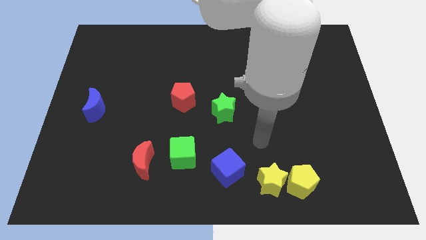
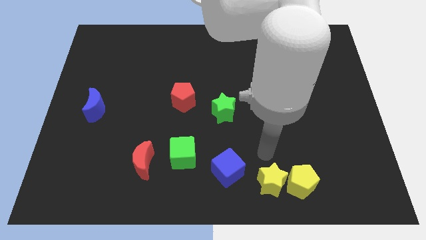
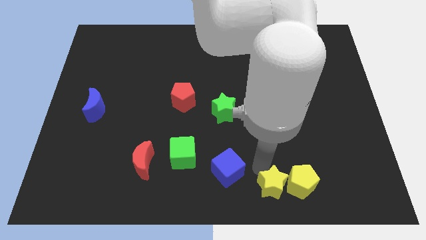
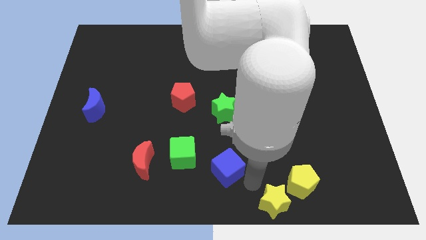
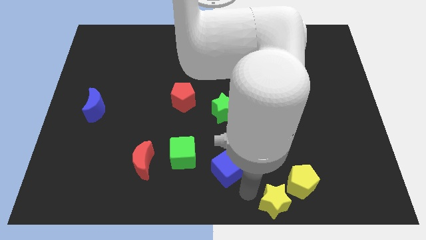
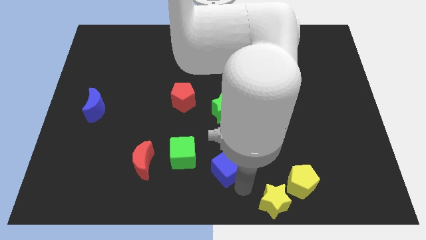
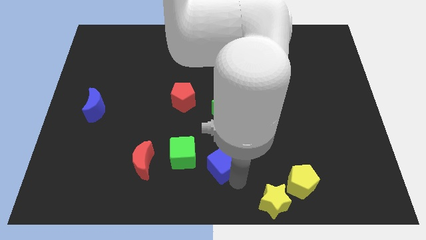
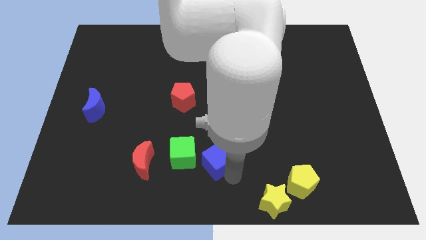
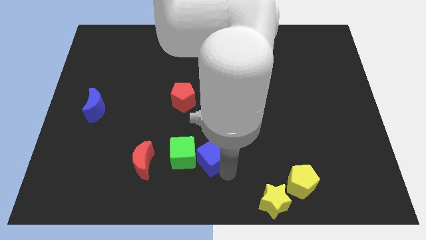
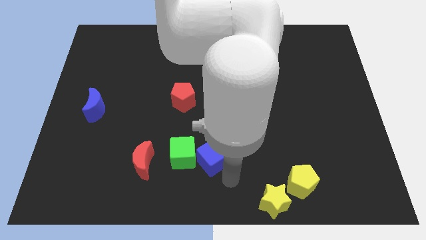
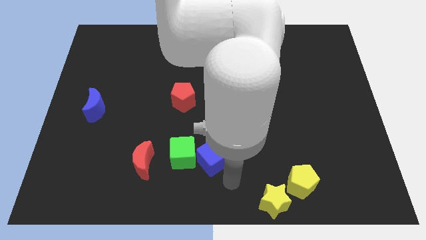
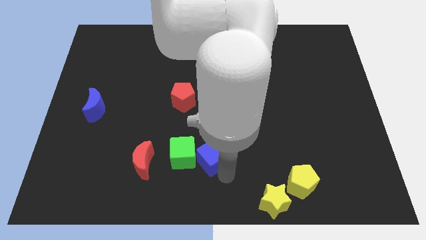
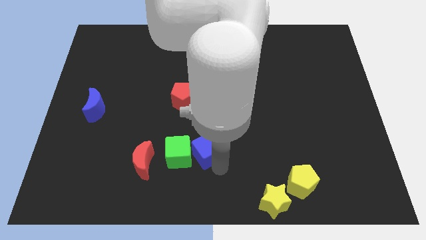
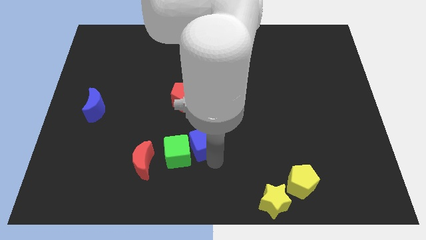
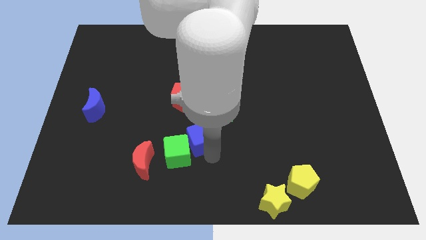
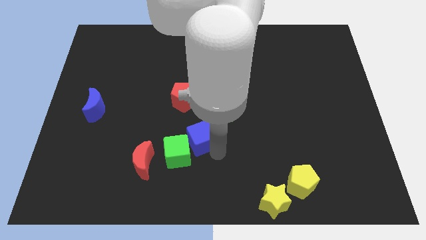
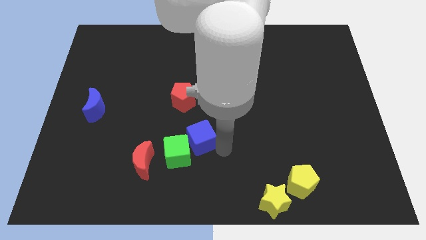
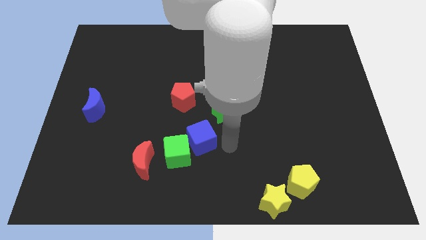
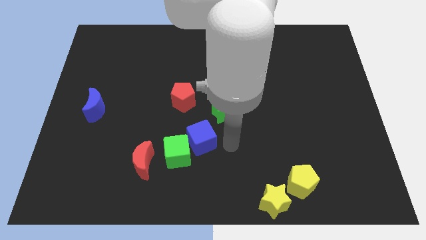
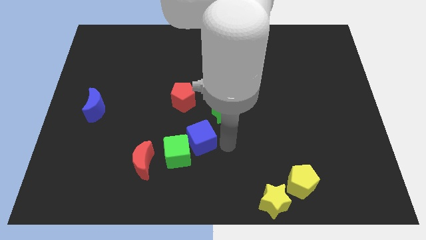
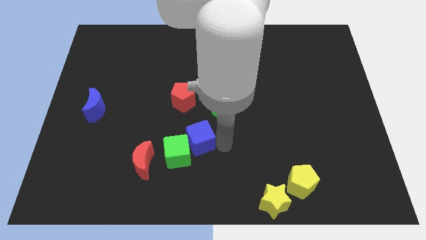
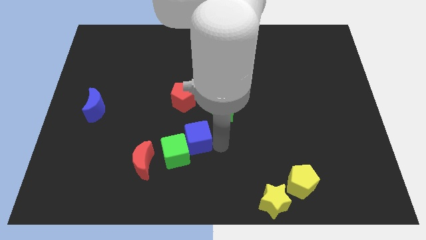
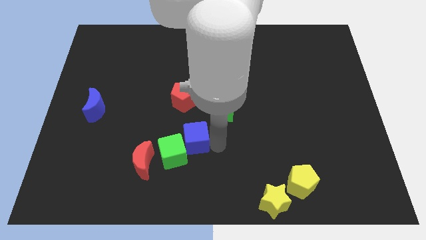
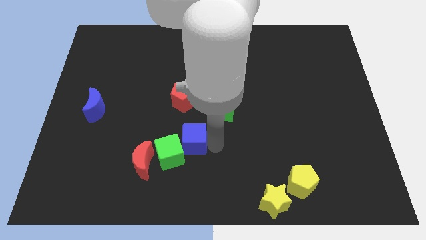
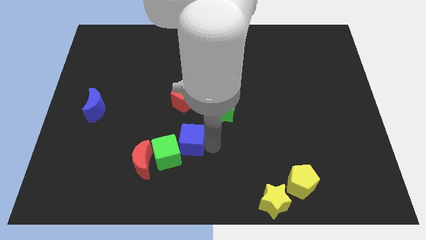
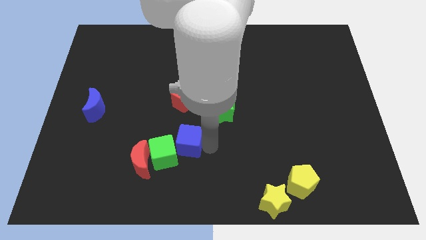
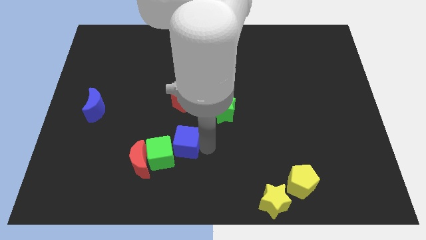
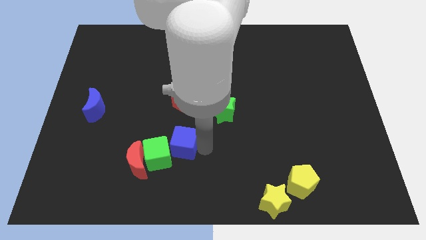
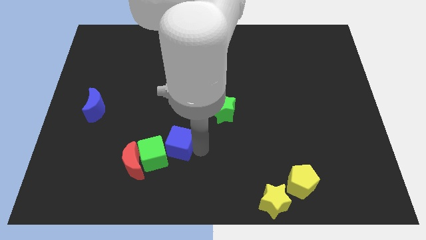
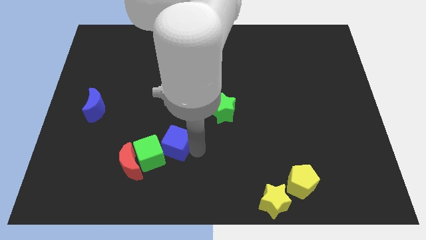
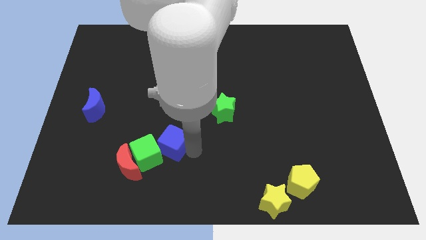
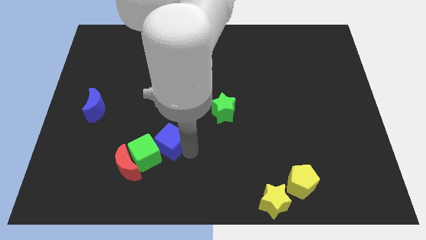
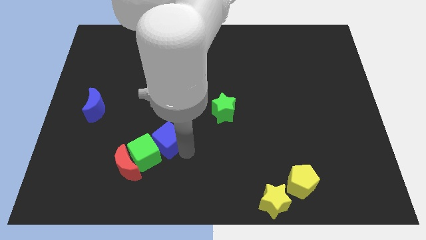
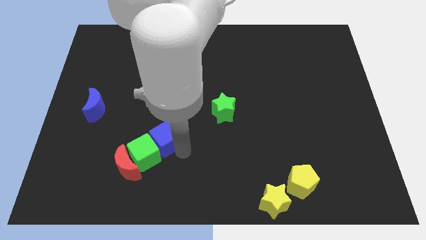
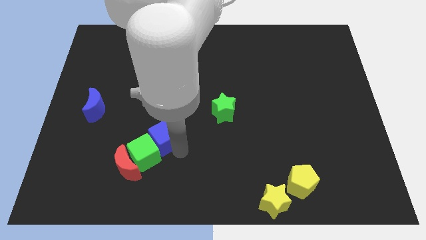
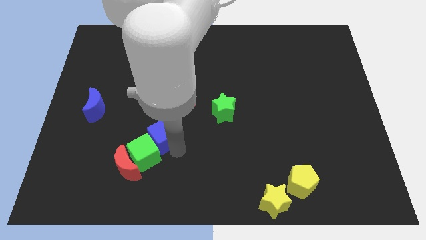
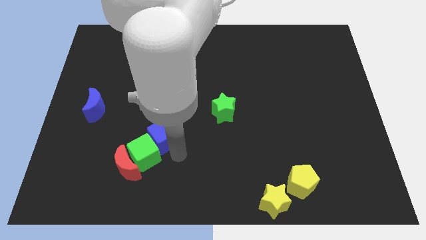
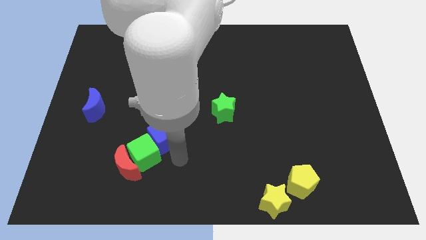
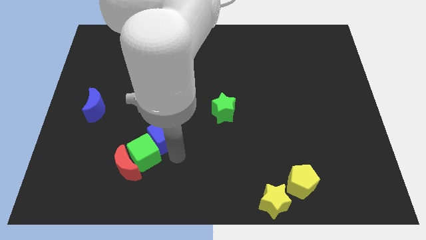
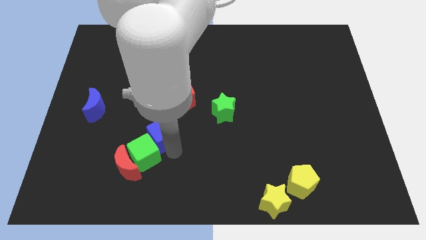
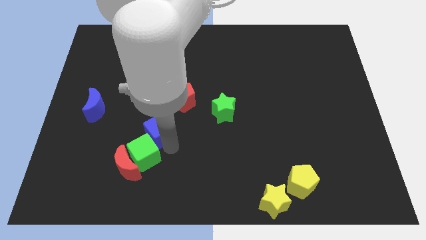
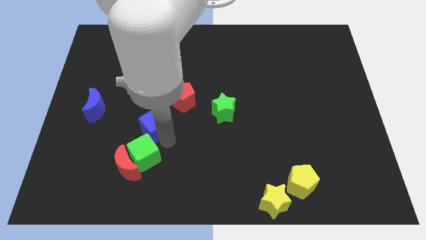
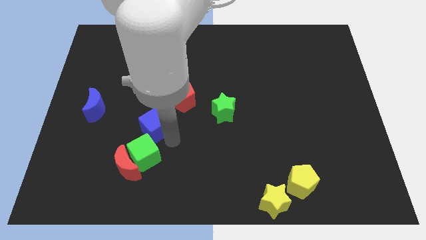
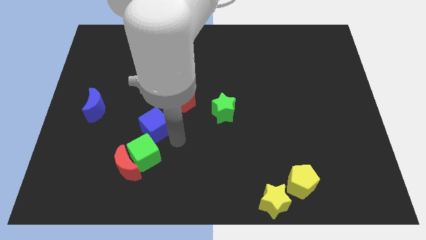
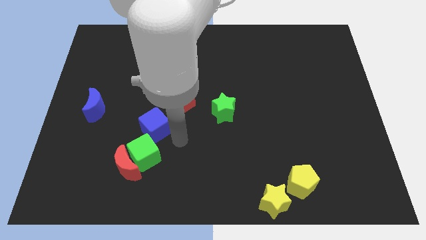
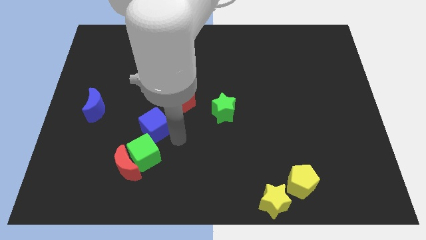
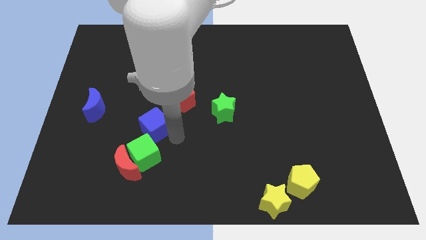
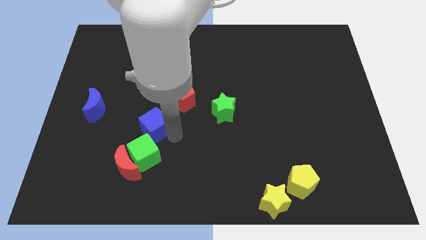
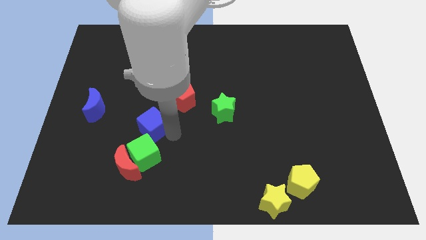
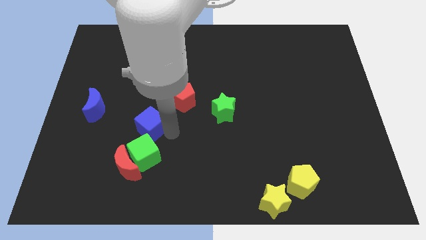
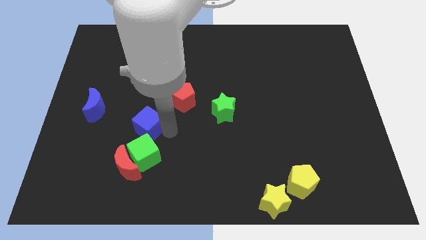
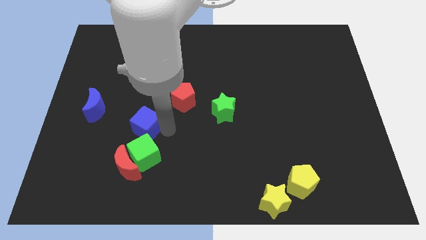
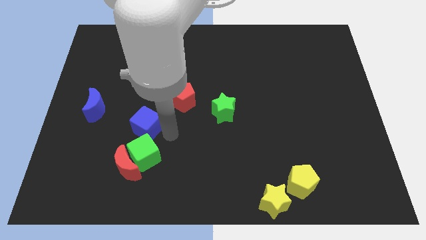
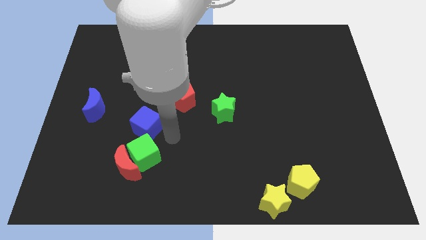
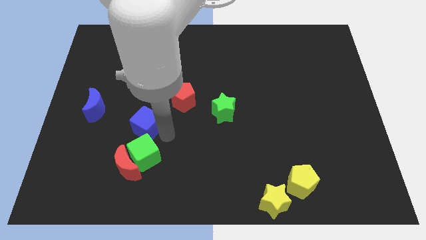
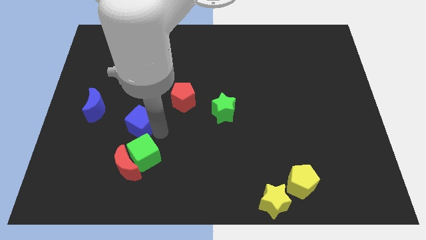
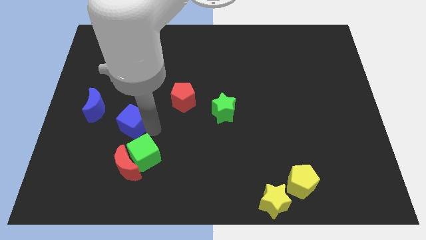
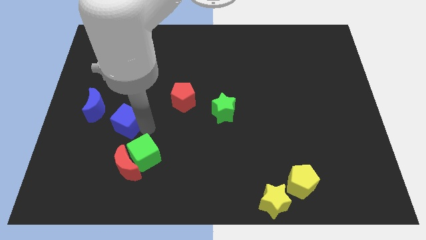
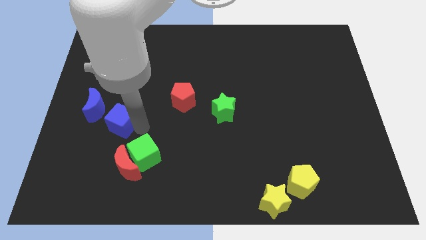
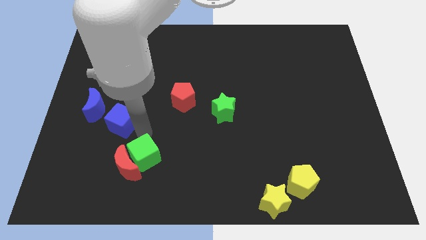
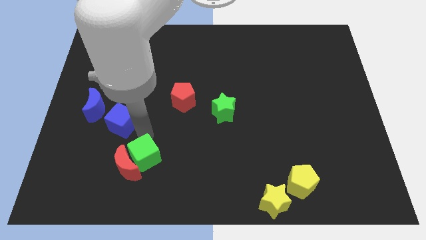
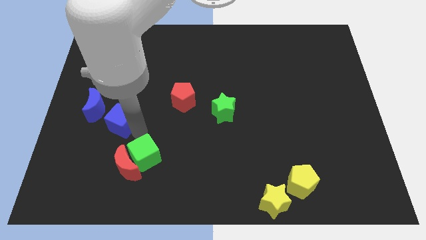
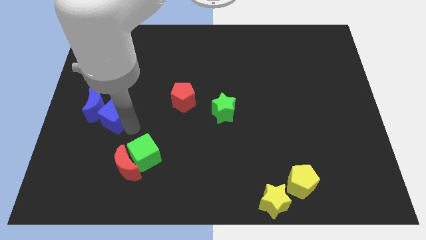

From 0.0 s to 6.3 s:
slide the blue cube close to the blue moon

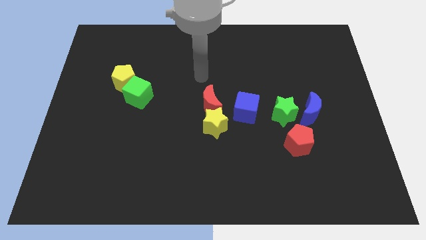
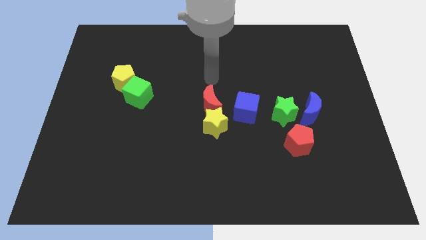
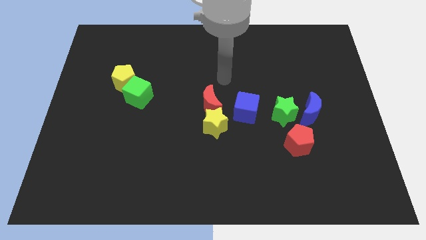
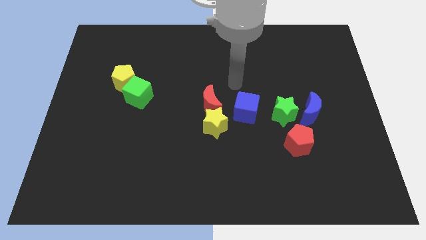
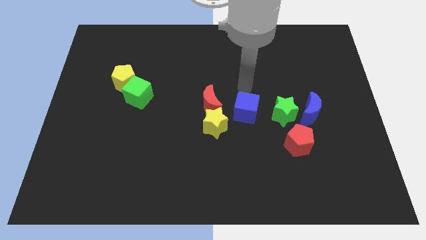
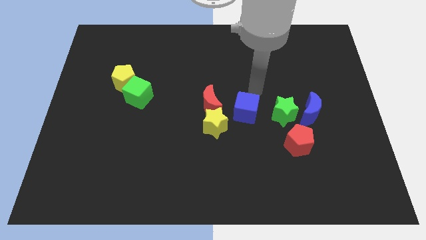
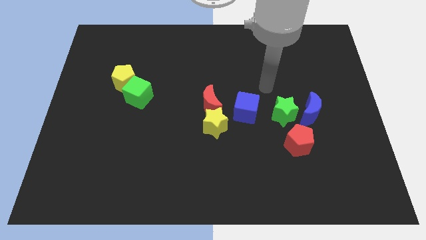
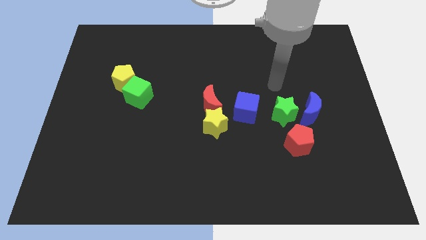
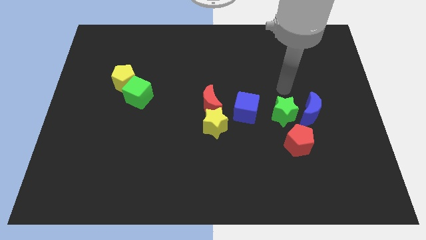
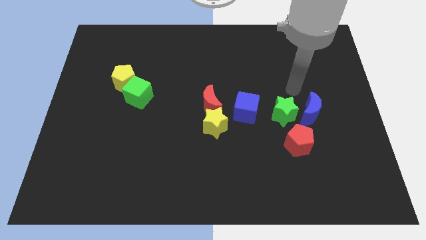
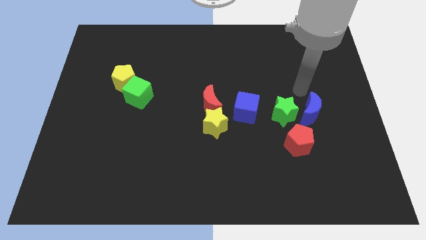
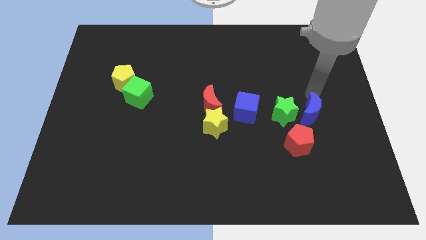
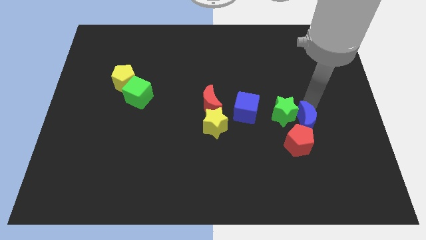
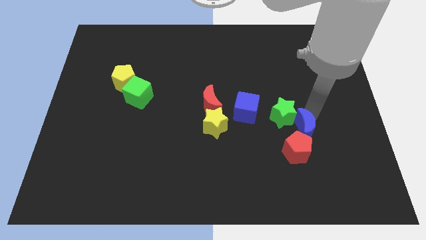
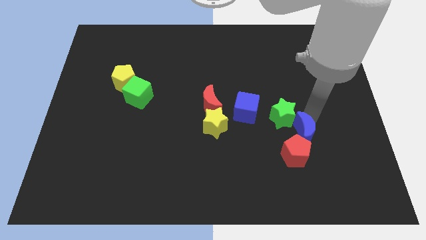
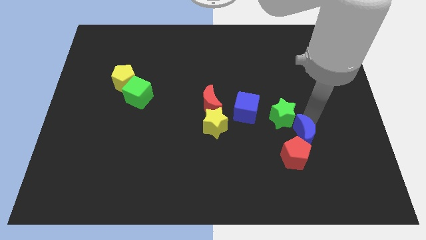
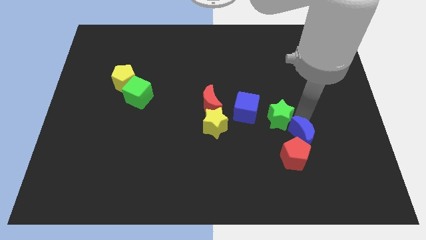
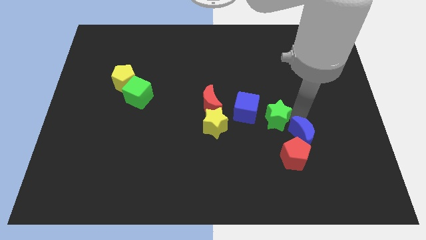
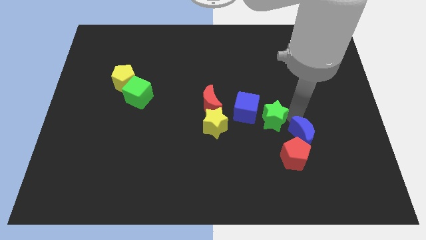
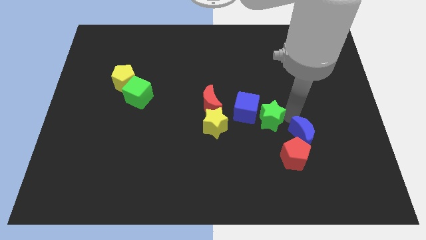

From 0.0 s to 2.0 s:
slide the green star next to the blue cube
